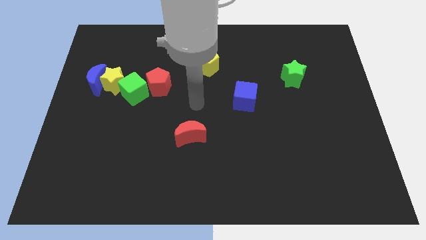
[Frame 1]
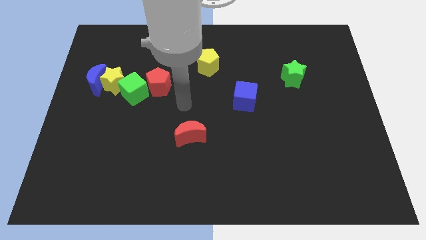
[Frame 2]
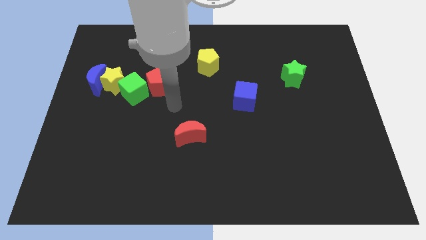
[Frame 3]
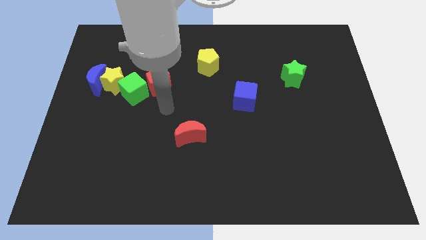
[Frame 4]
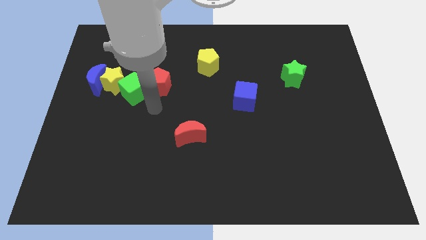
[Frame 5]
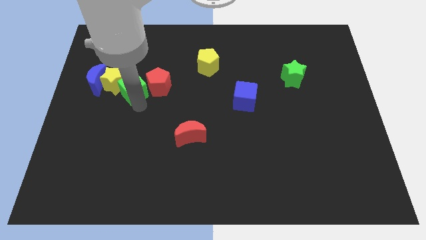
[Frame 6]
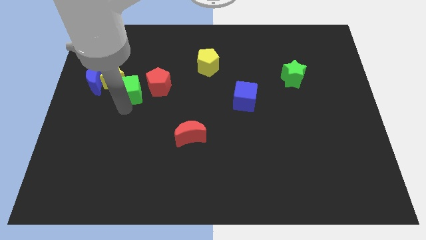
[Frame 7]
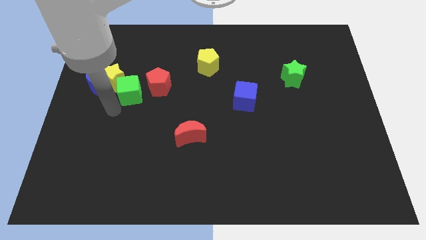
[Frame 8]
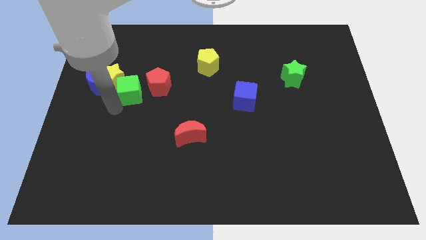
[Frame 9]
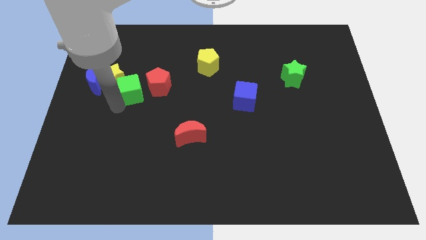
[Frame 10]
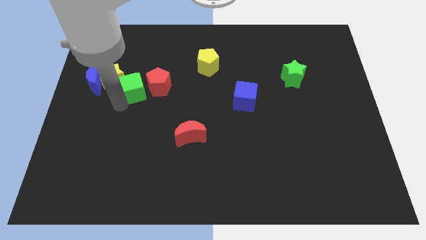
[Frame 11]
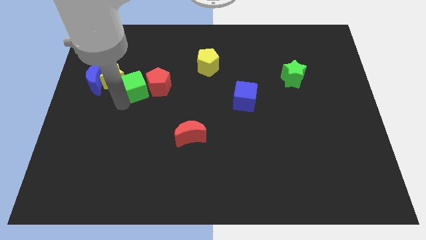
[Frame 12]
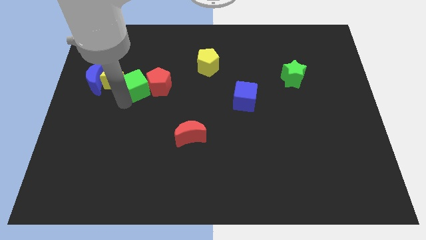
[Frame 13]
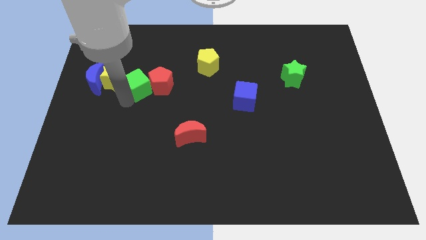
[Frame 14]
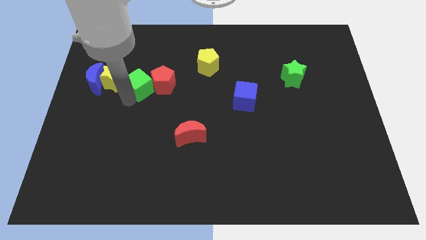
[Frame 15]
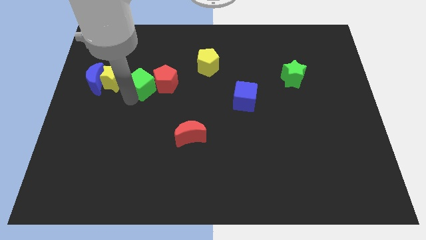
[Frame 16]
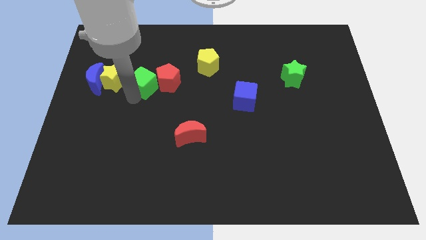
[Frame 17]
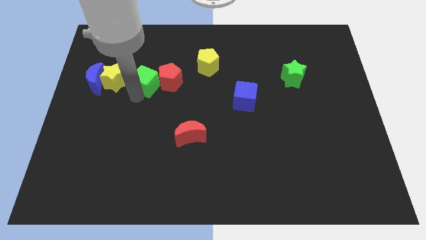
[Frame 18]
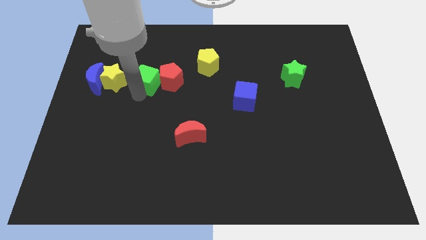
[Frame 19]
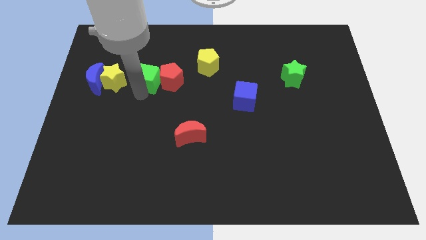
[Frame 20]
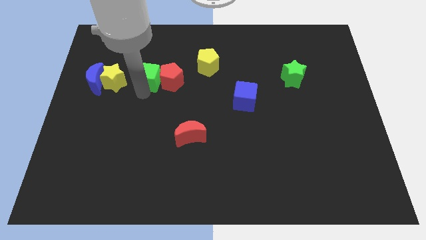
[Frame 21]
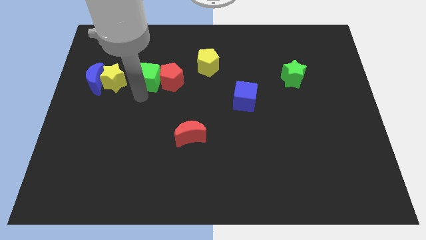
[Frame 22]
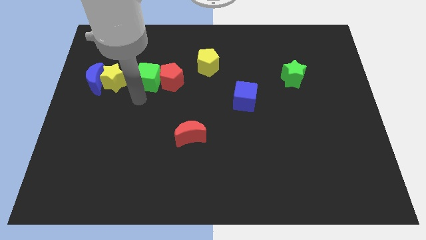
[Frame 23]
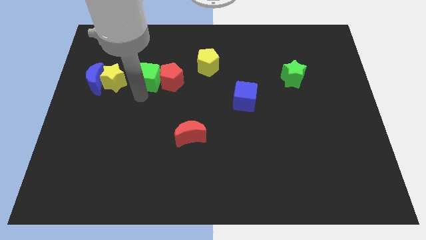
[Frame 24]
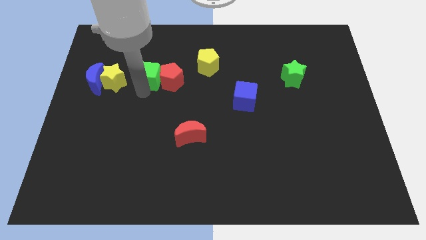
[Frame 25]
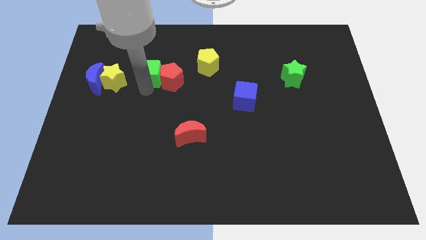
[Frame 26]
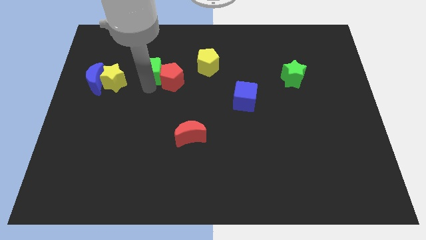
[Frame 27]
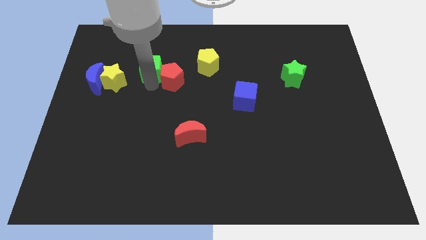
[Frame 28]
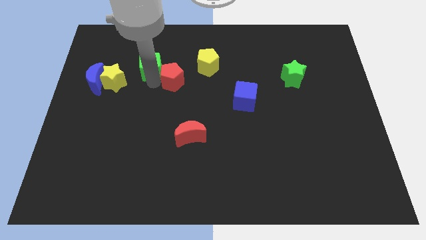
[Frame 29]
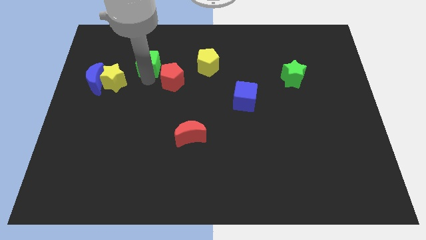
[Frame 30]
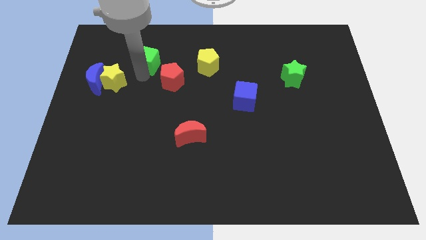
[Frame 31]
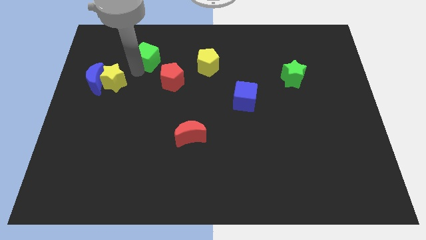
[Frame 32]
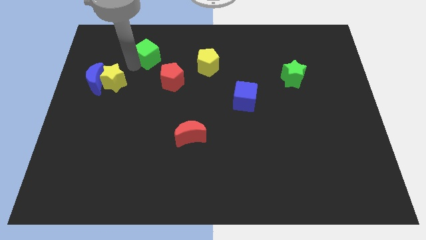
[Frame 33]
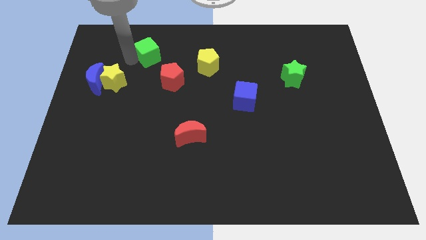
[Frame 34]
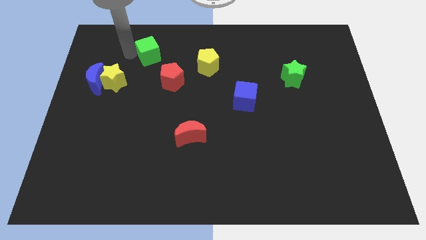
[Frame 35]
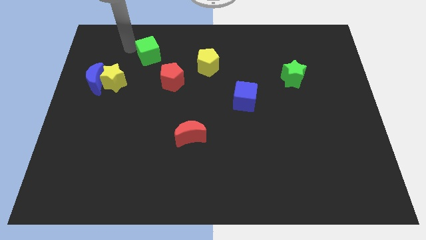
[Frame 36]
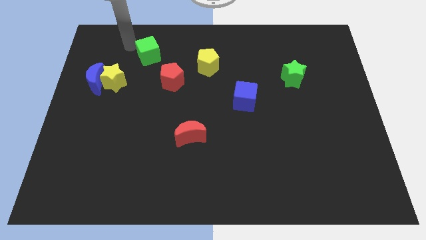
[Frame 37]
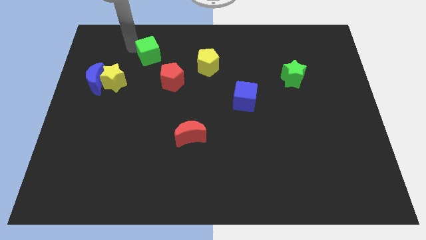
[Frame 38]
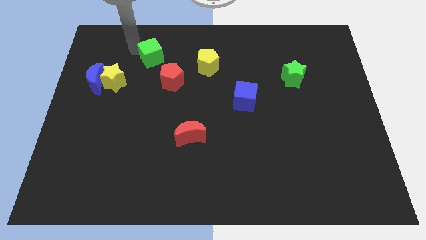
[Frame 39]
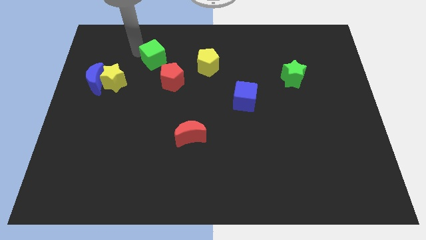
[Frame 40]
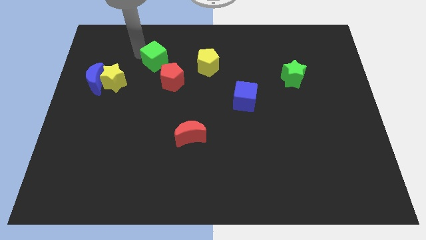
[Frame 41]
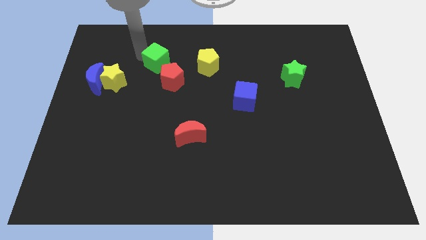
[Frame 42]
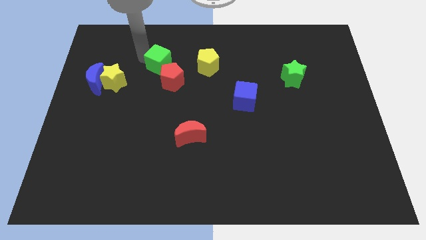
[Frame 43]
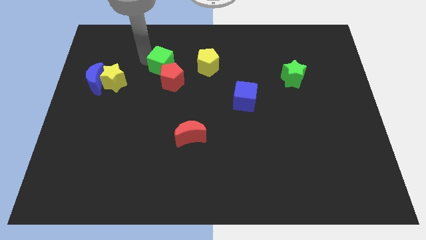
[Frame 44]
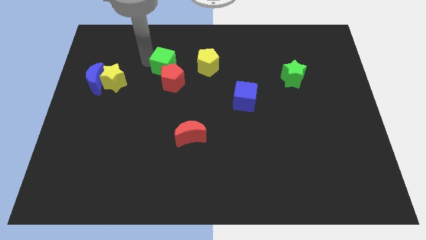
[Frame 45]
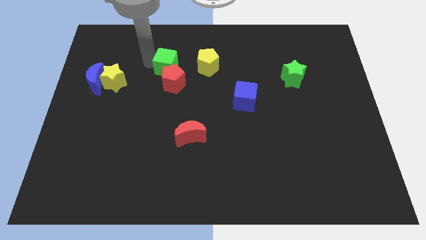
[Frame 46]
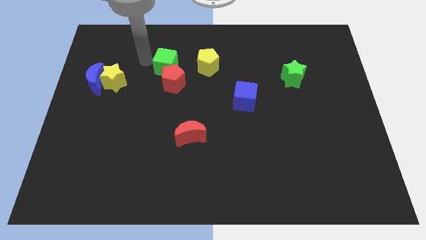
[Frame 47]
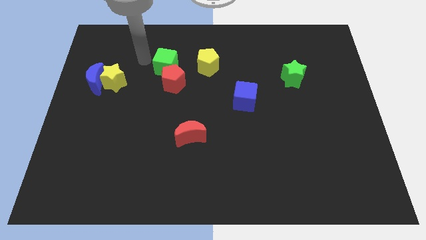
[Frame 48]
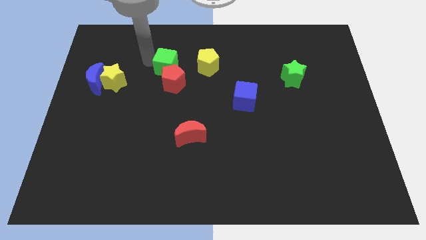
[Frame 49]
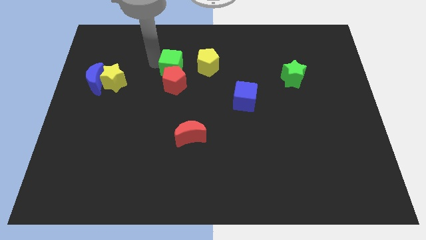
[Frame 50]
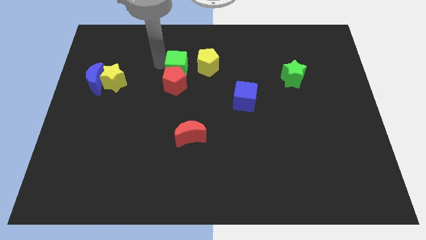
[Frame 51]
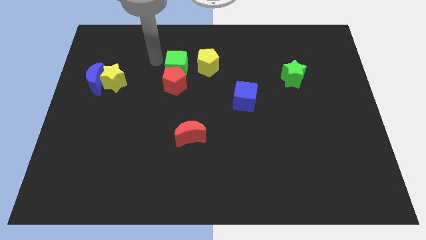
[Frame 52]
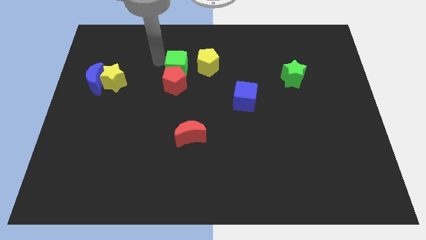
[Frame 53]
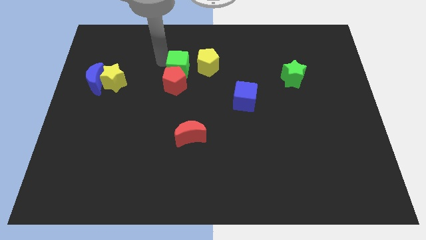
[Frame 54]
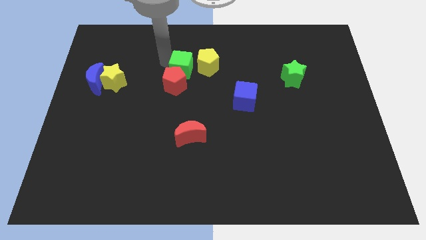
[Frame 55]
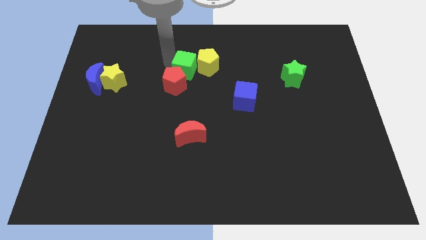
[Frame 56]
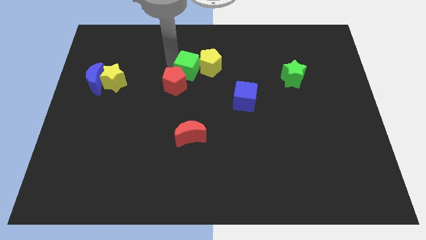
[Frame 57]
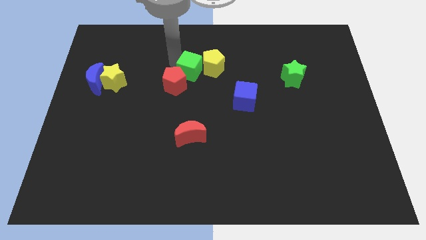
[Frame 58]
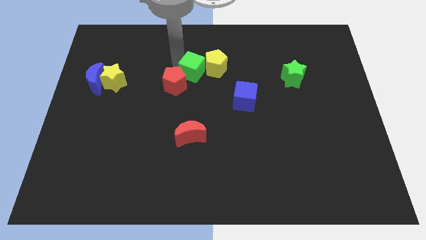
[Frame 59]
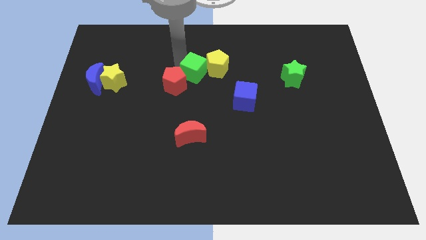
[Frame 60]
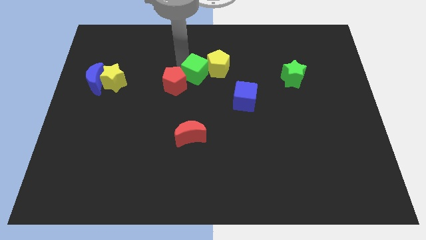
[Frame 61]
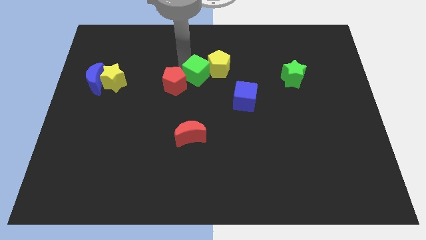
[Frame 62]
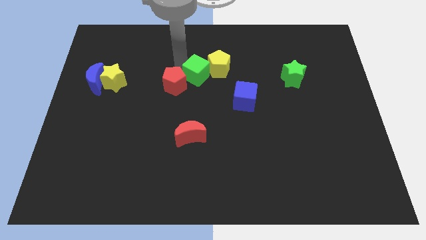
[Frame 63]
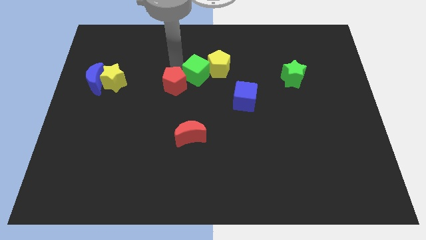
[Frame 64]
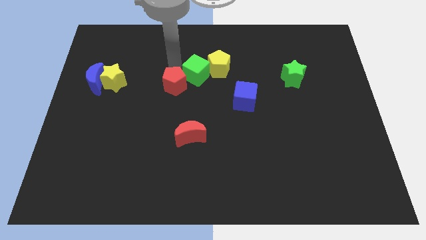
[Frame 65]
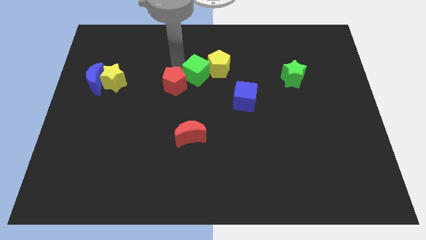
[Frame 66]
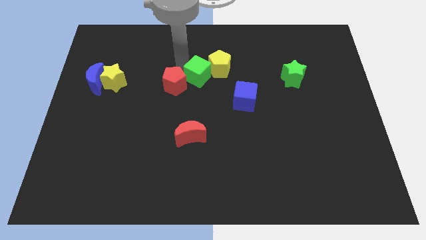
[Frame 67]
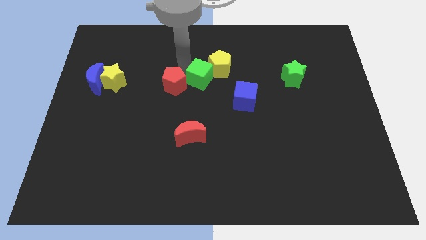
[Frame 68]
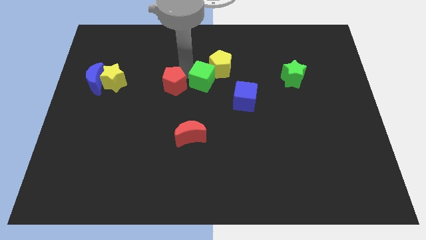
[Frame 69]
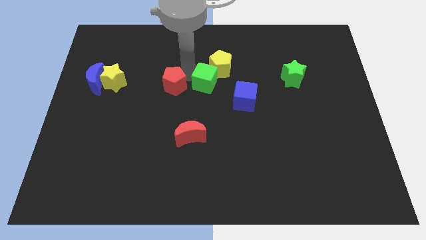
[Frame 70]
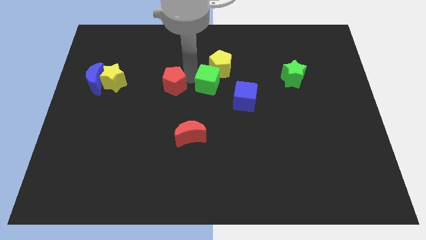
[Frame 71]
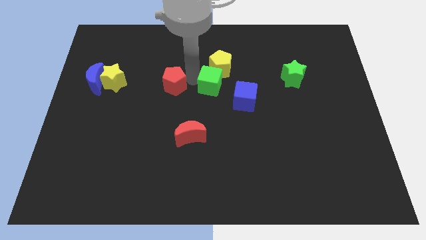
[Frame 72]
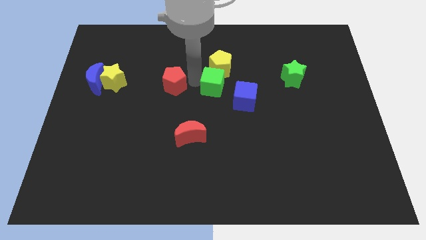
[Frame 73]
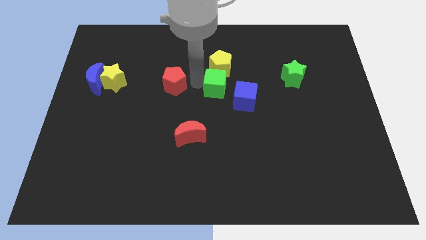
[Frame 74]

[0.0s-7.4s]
slide the green cube right

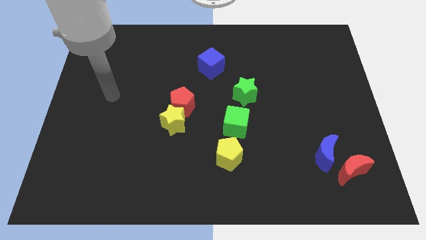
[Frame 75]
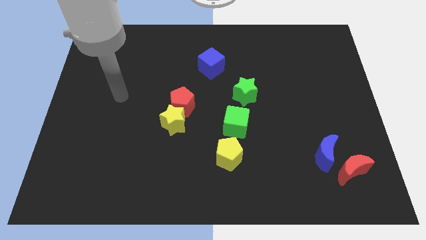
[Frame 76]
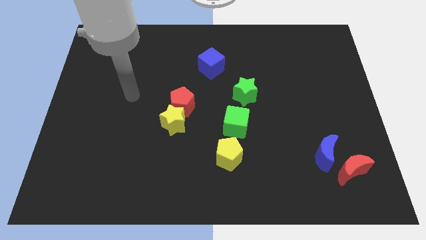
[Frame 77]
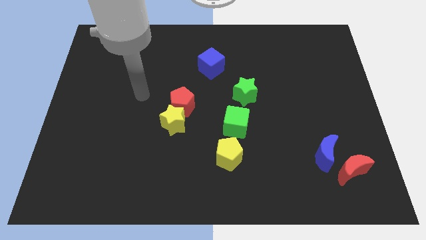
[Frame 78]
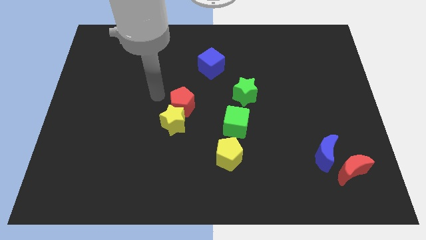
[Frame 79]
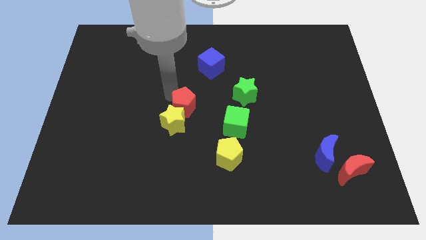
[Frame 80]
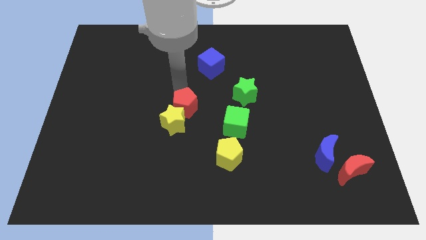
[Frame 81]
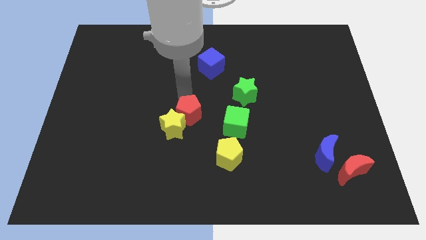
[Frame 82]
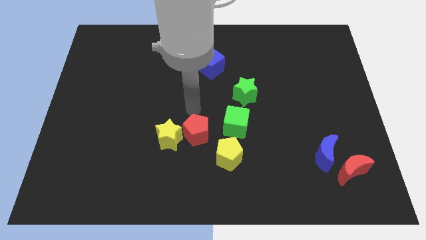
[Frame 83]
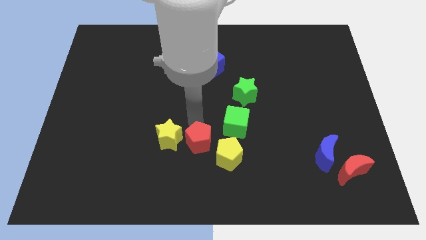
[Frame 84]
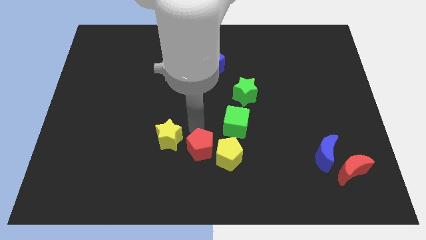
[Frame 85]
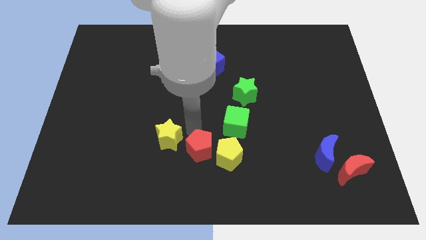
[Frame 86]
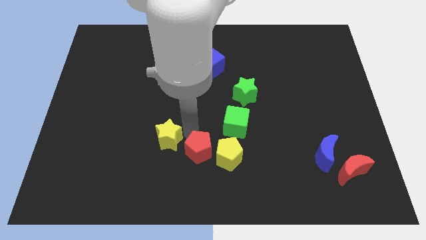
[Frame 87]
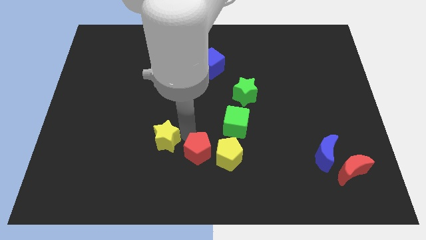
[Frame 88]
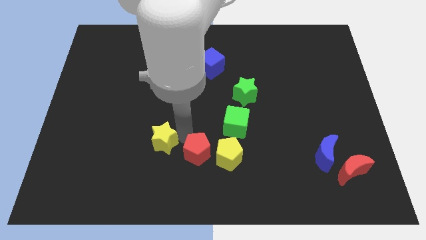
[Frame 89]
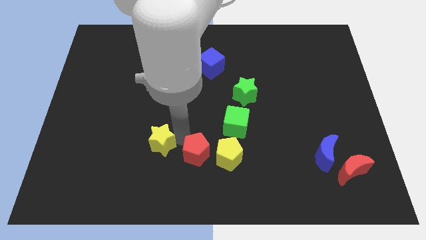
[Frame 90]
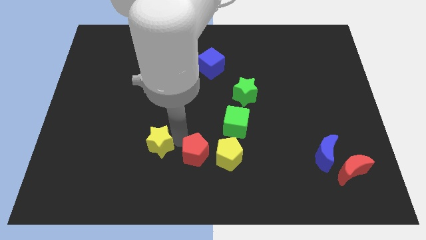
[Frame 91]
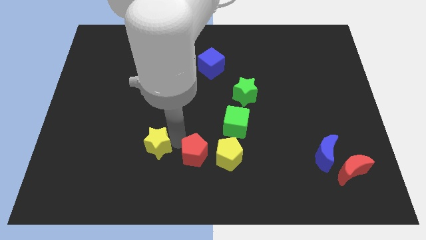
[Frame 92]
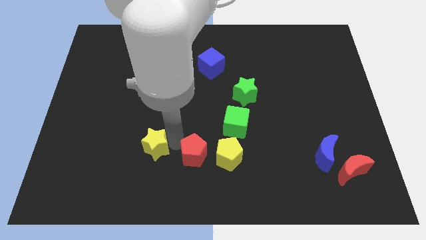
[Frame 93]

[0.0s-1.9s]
slide the yellow star slightly downwards and left diagonally
